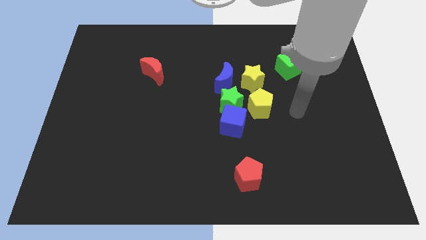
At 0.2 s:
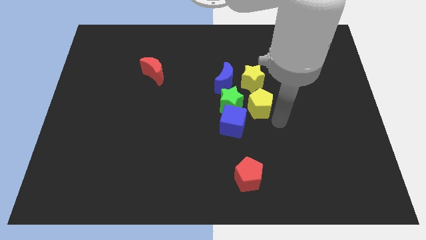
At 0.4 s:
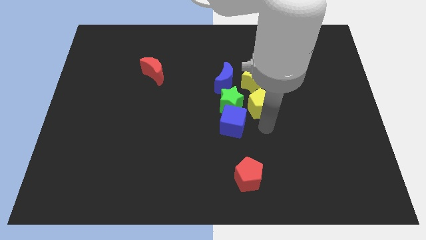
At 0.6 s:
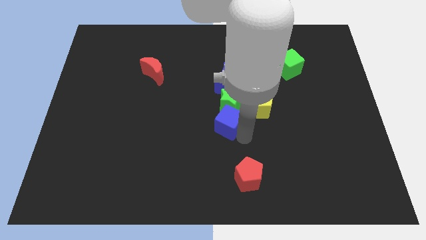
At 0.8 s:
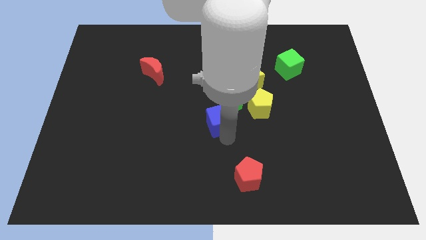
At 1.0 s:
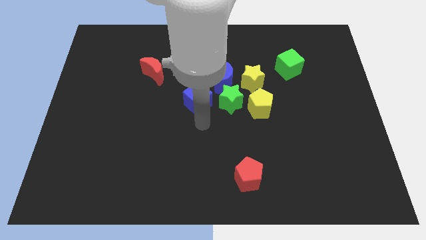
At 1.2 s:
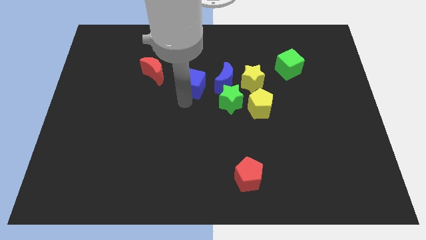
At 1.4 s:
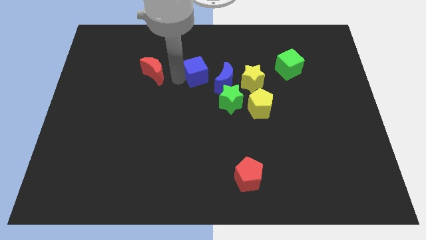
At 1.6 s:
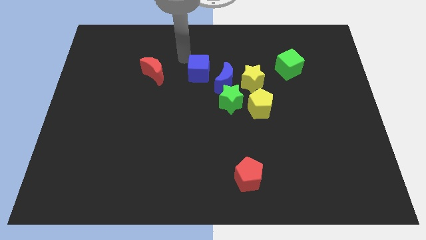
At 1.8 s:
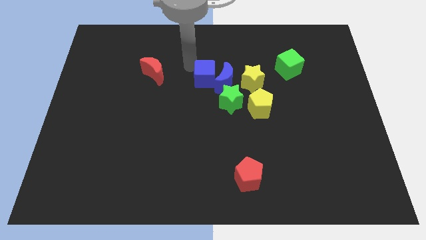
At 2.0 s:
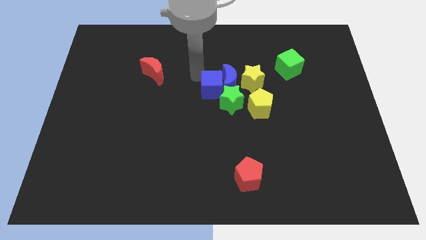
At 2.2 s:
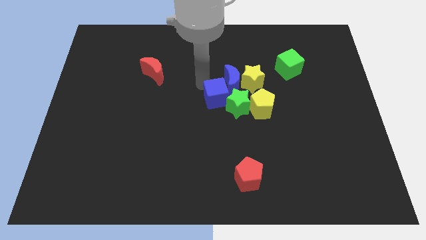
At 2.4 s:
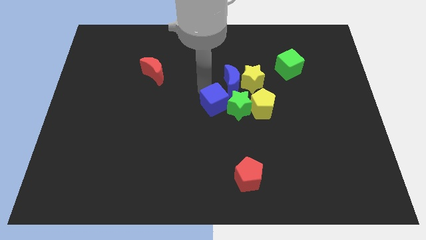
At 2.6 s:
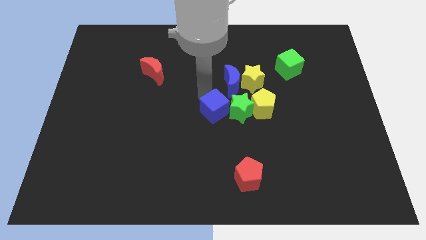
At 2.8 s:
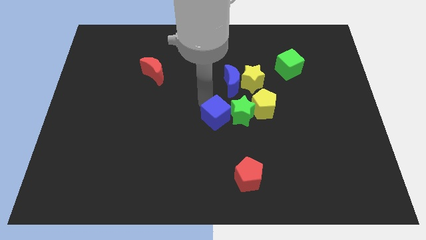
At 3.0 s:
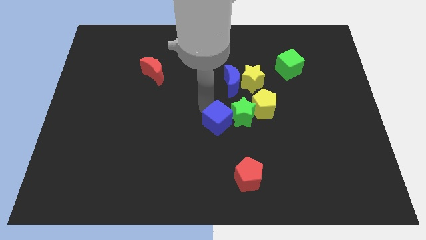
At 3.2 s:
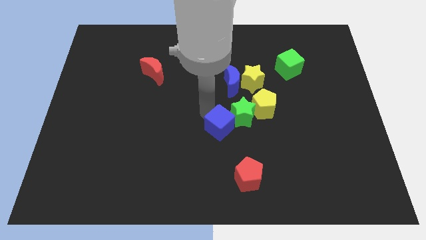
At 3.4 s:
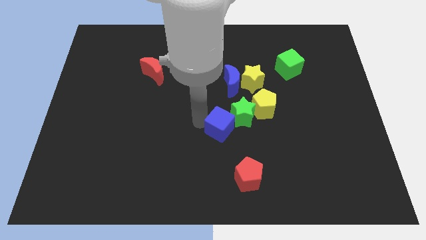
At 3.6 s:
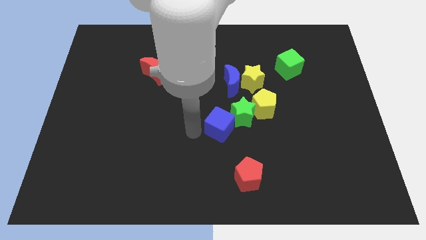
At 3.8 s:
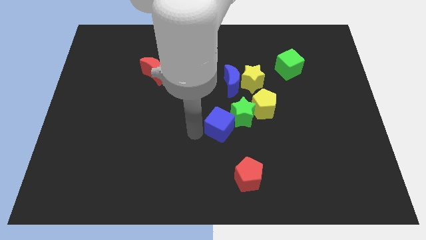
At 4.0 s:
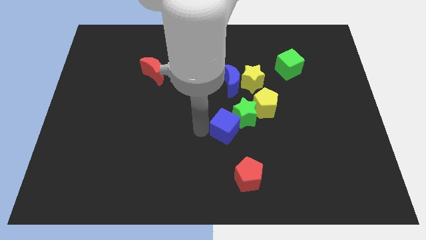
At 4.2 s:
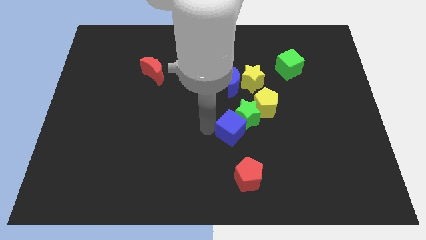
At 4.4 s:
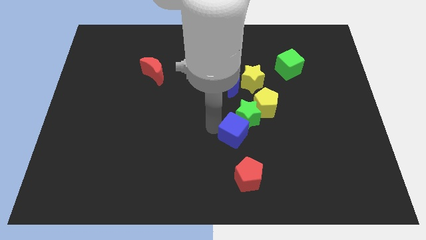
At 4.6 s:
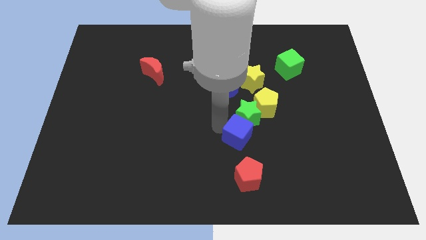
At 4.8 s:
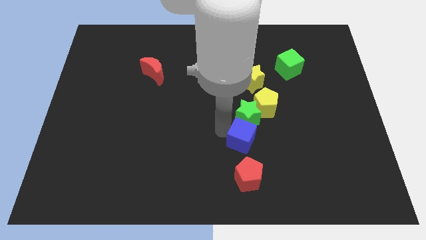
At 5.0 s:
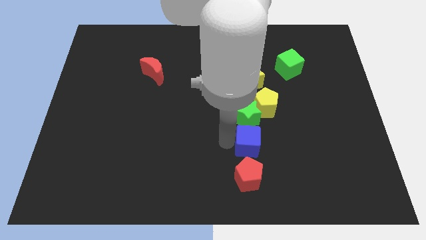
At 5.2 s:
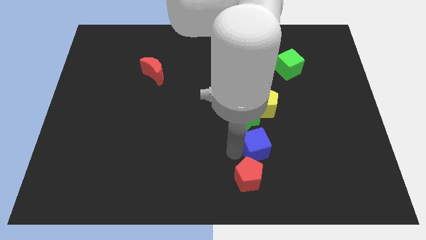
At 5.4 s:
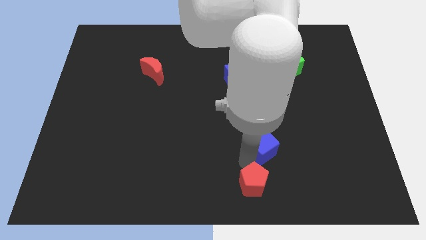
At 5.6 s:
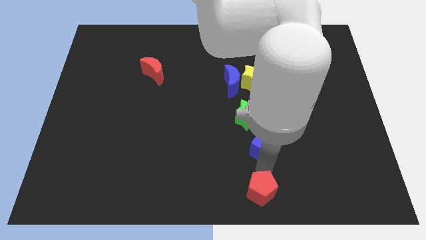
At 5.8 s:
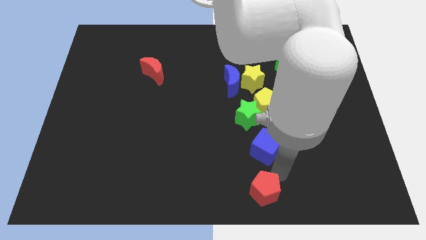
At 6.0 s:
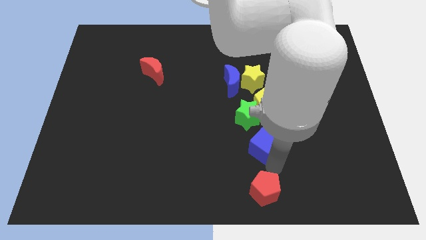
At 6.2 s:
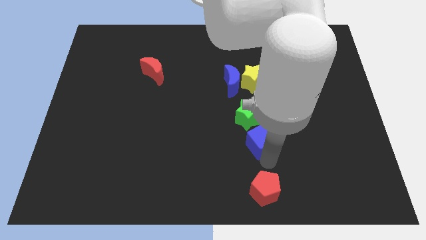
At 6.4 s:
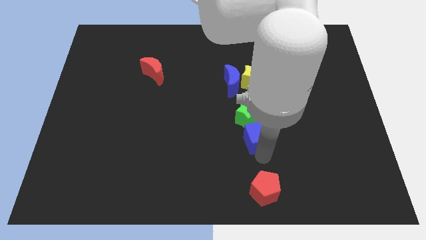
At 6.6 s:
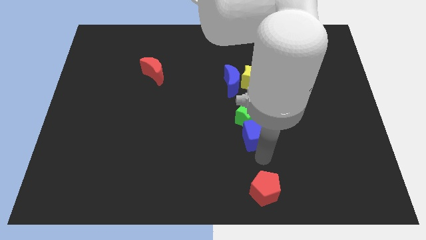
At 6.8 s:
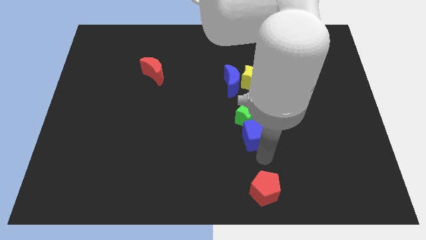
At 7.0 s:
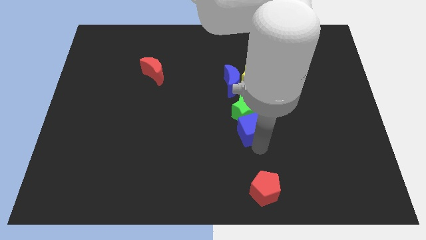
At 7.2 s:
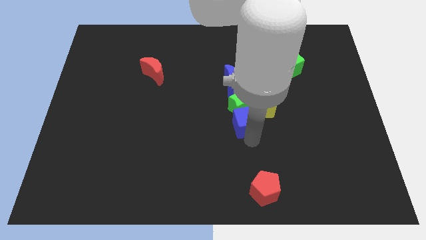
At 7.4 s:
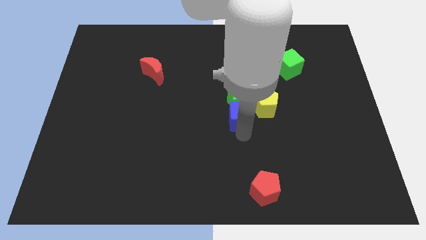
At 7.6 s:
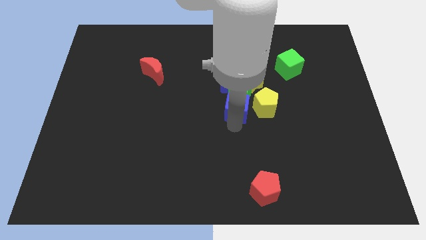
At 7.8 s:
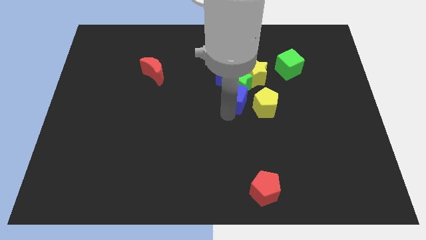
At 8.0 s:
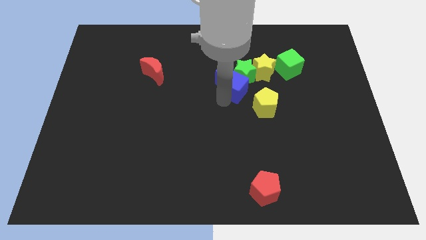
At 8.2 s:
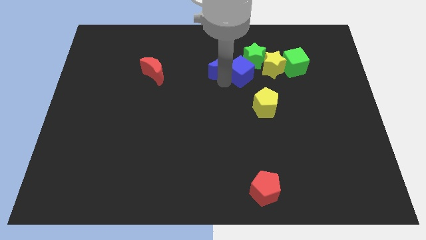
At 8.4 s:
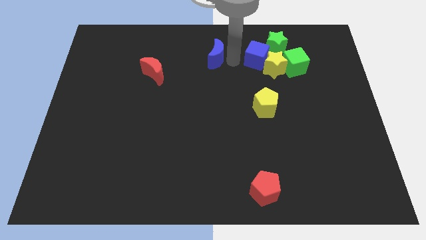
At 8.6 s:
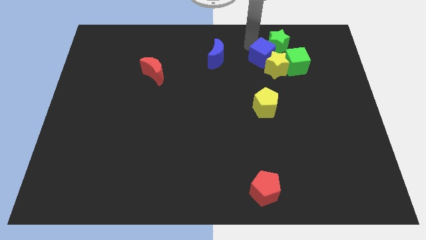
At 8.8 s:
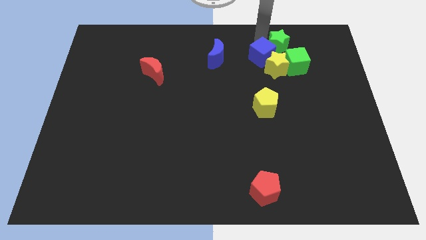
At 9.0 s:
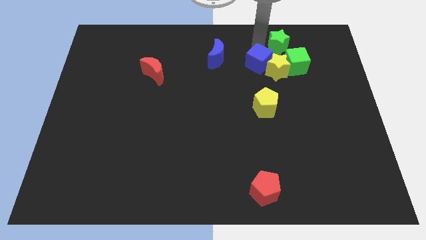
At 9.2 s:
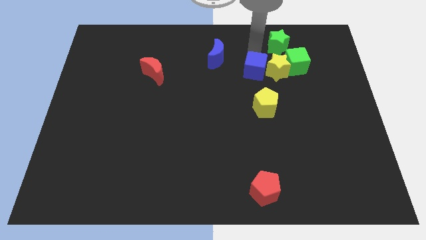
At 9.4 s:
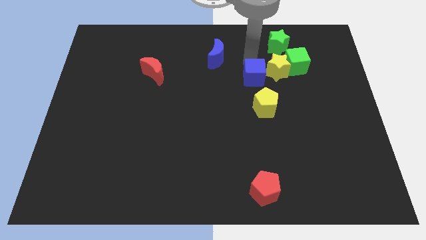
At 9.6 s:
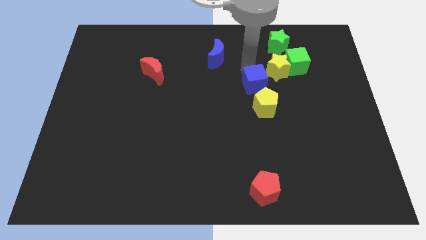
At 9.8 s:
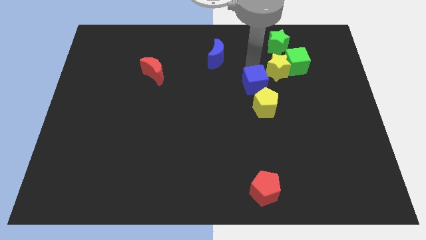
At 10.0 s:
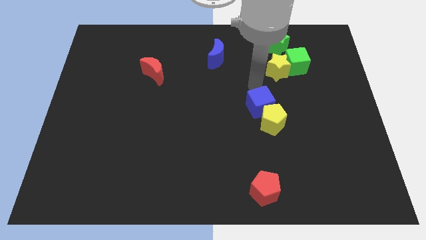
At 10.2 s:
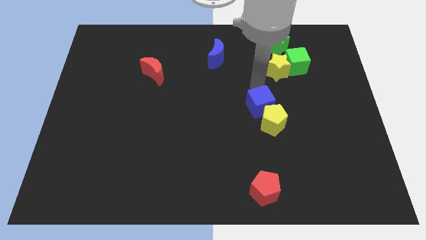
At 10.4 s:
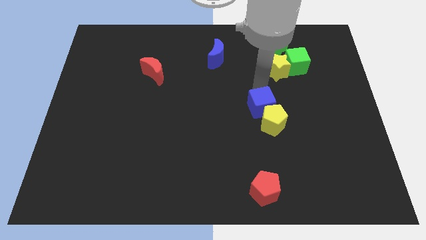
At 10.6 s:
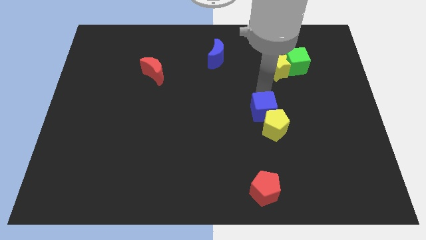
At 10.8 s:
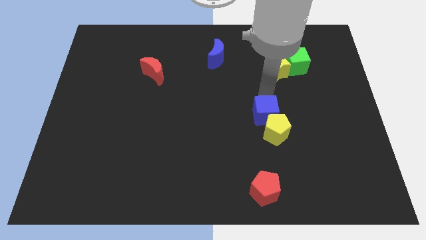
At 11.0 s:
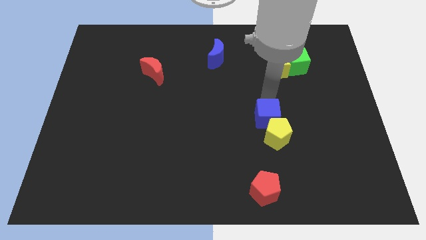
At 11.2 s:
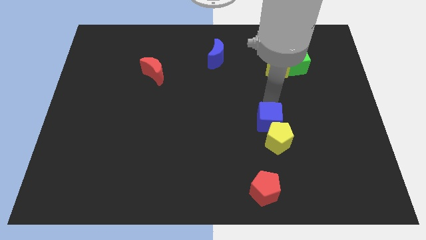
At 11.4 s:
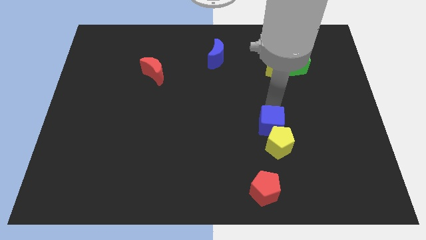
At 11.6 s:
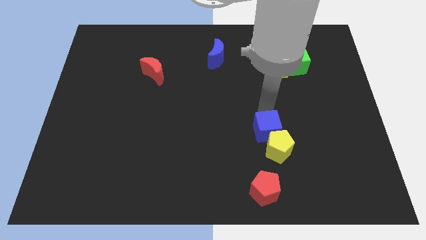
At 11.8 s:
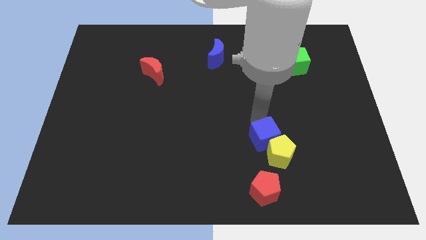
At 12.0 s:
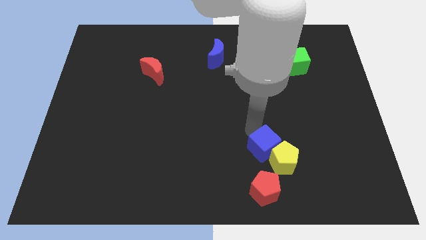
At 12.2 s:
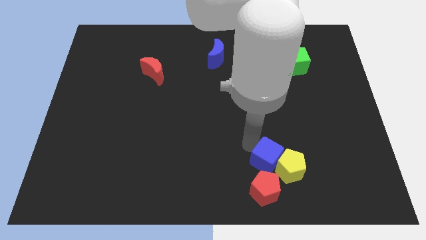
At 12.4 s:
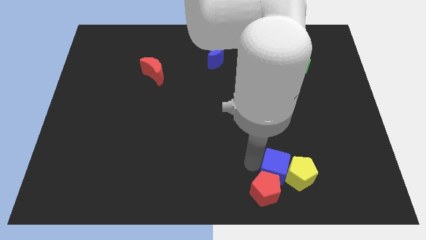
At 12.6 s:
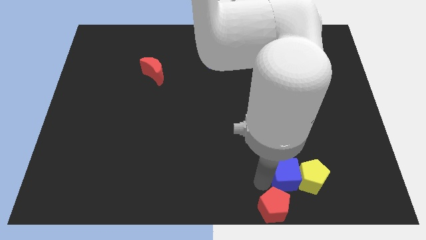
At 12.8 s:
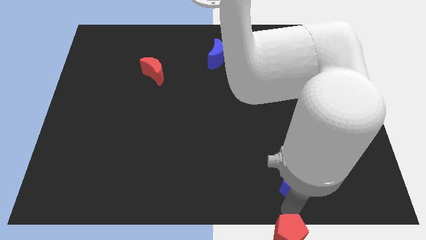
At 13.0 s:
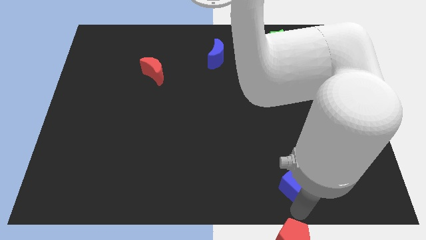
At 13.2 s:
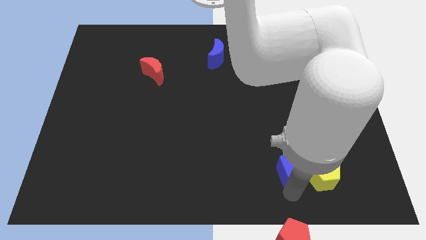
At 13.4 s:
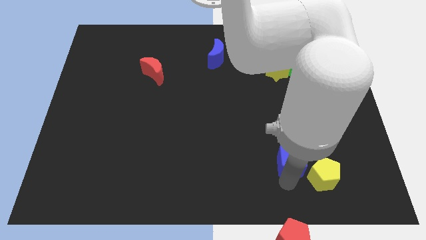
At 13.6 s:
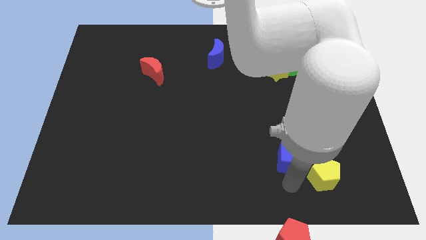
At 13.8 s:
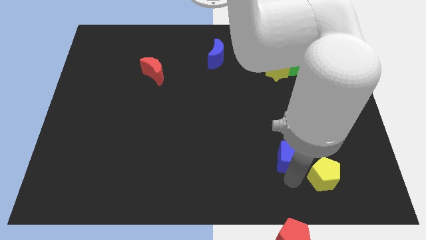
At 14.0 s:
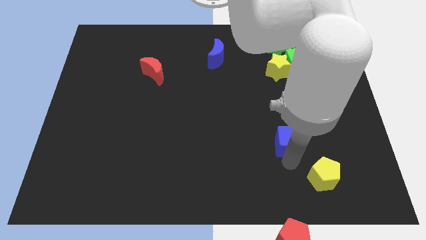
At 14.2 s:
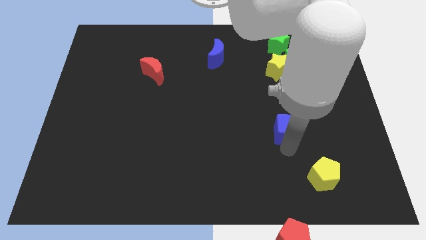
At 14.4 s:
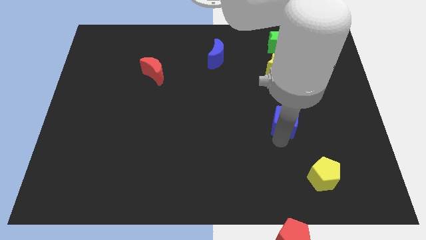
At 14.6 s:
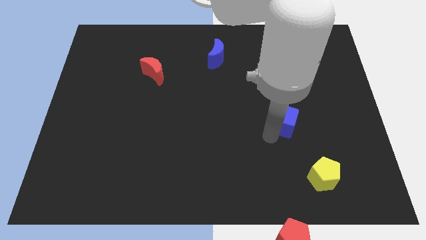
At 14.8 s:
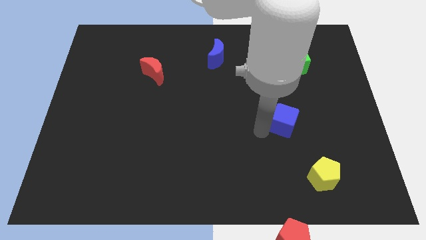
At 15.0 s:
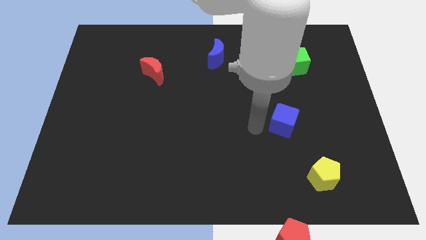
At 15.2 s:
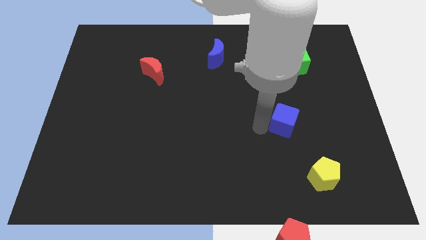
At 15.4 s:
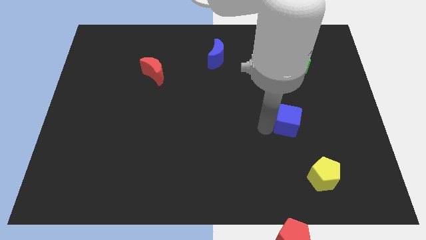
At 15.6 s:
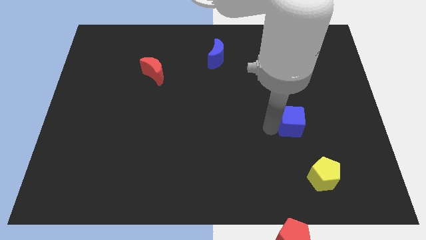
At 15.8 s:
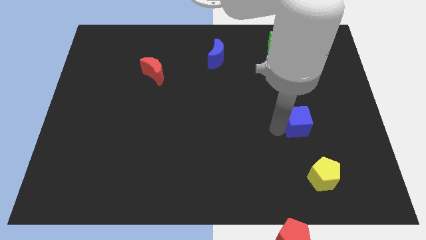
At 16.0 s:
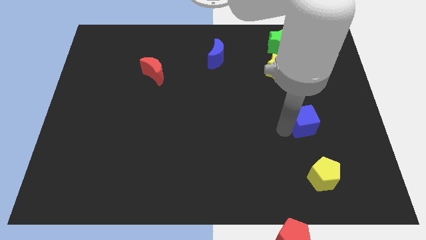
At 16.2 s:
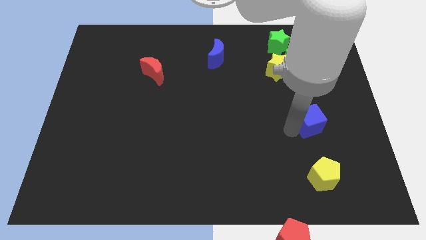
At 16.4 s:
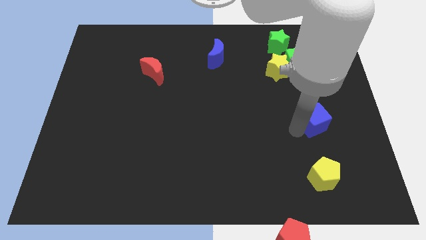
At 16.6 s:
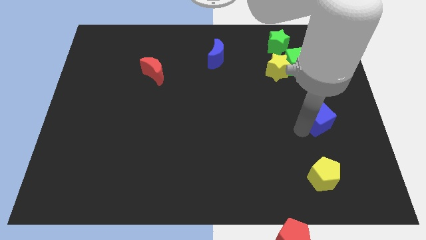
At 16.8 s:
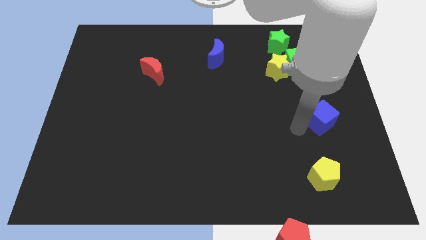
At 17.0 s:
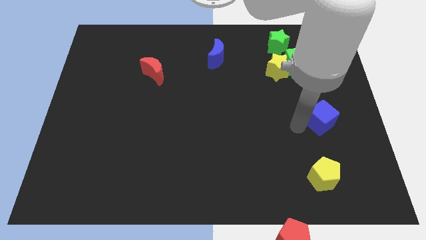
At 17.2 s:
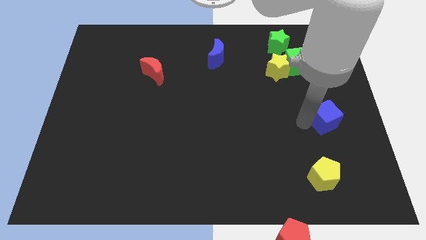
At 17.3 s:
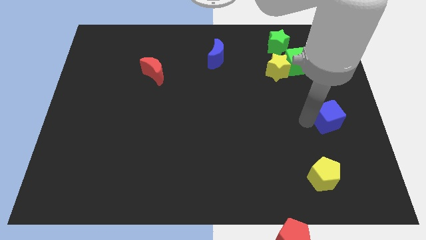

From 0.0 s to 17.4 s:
push the blue cube to the right side of the board
